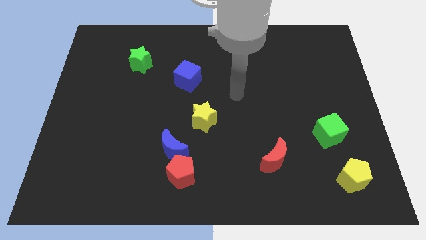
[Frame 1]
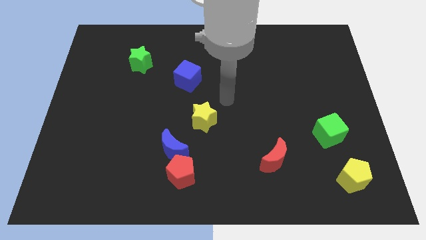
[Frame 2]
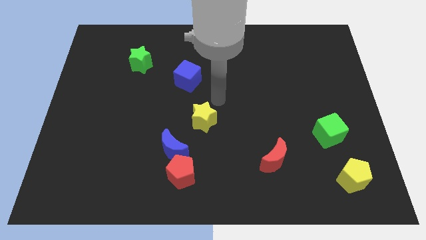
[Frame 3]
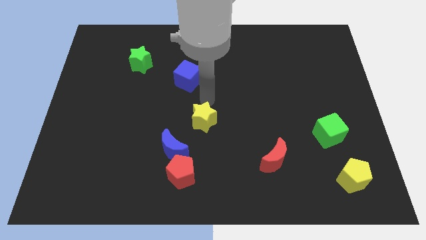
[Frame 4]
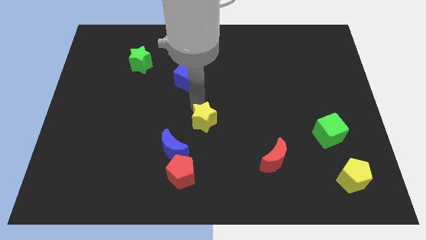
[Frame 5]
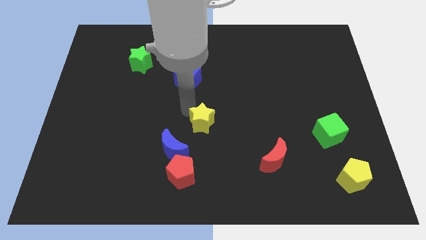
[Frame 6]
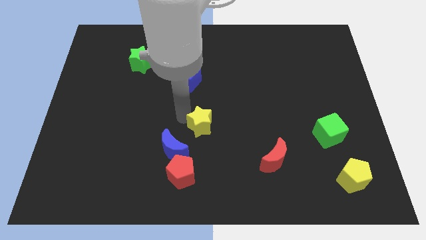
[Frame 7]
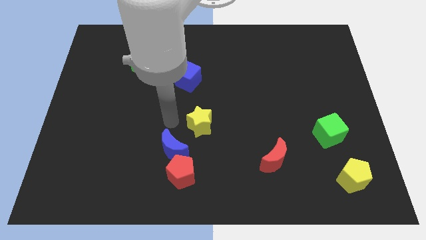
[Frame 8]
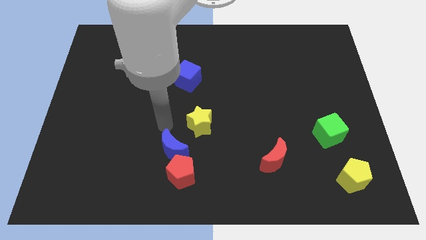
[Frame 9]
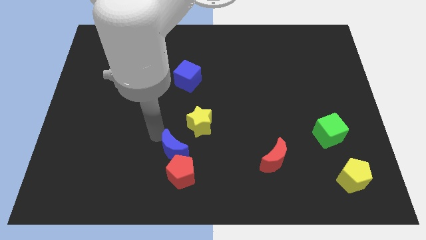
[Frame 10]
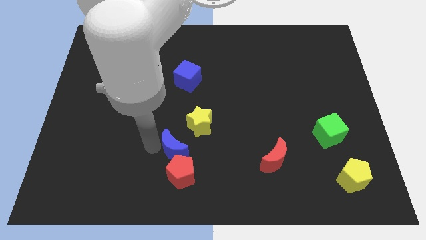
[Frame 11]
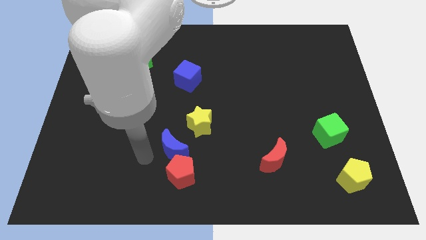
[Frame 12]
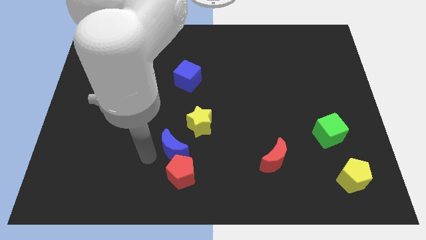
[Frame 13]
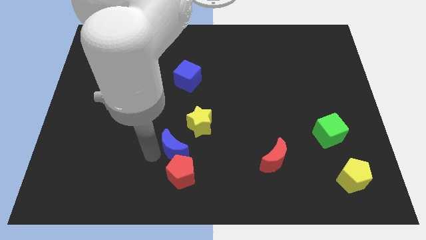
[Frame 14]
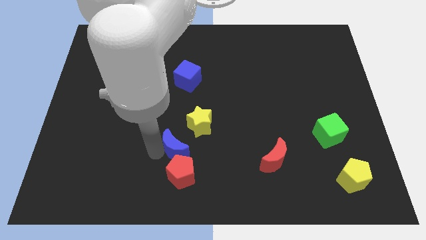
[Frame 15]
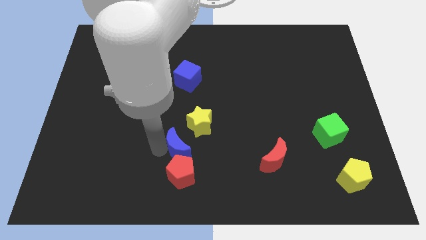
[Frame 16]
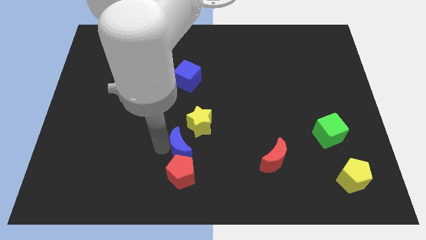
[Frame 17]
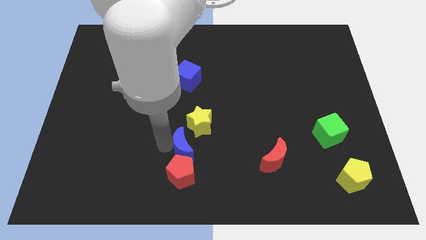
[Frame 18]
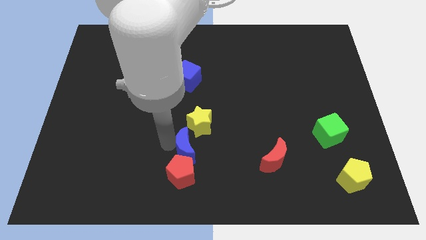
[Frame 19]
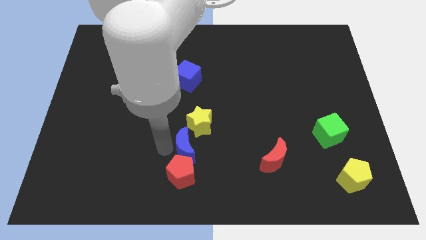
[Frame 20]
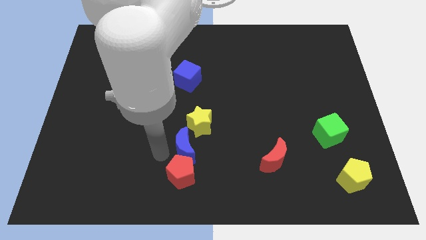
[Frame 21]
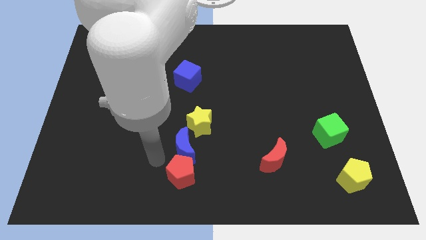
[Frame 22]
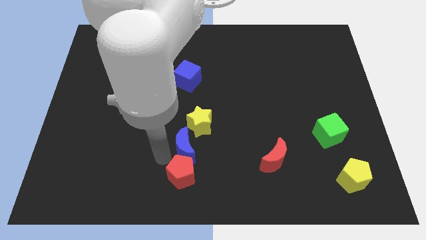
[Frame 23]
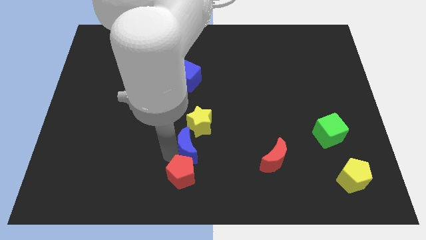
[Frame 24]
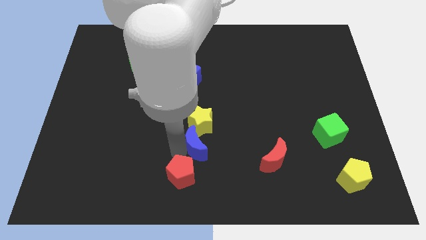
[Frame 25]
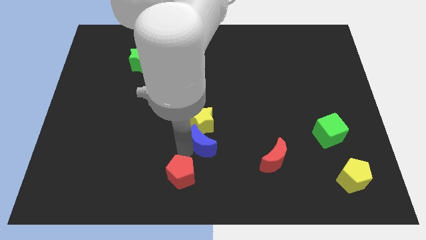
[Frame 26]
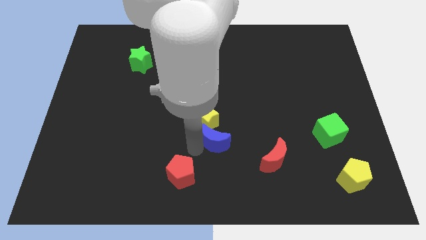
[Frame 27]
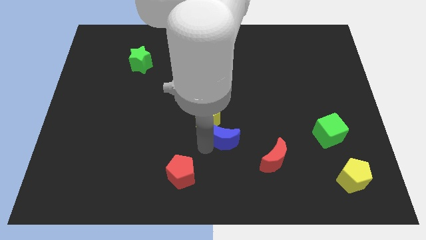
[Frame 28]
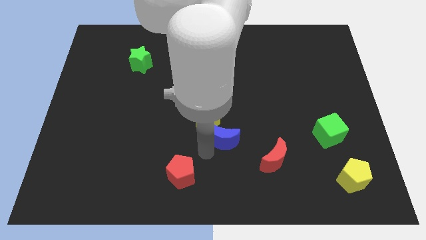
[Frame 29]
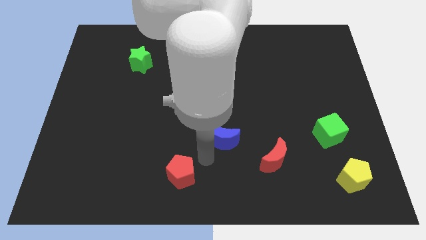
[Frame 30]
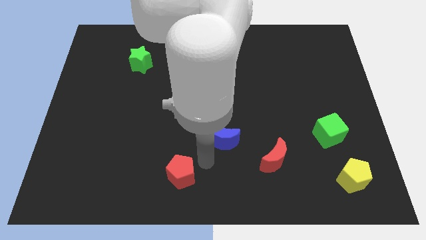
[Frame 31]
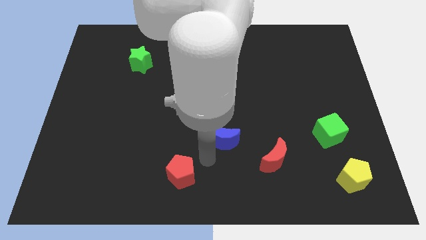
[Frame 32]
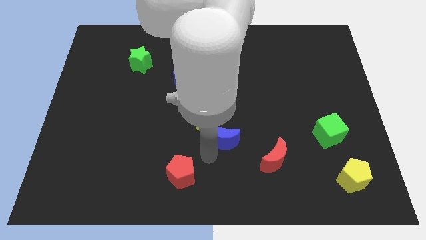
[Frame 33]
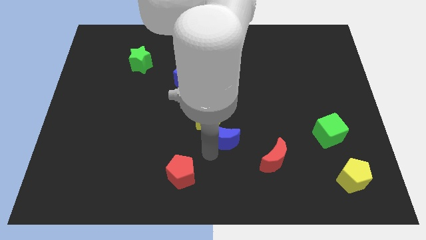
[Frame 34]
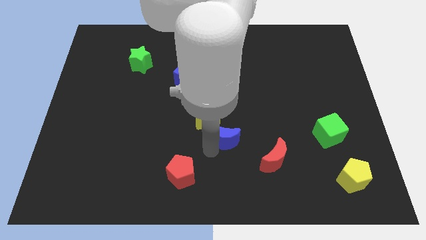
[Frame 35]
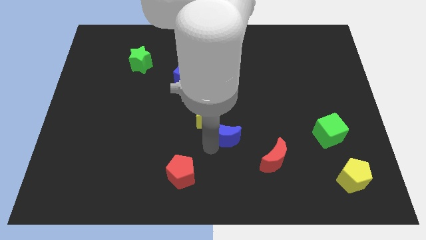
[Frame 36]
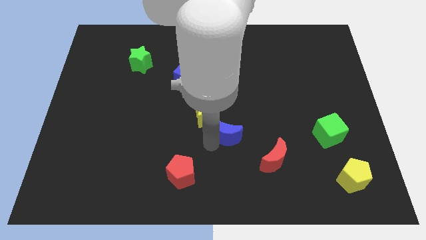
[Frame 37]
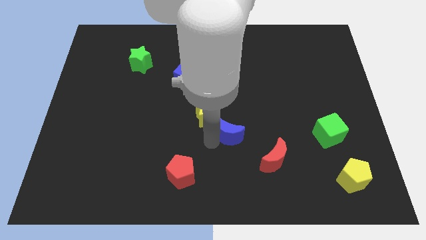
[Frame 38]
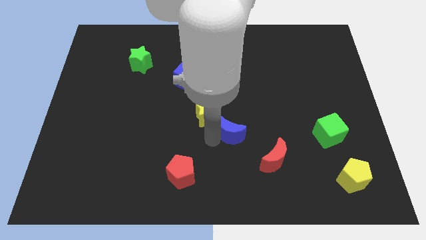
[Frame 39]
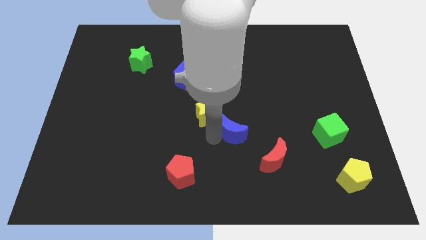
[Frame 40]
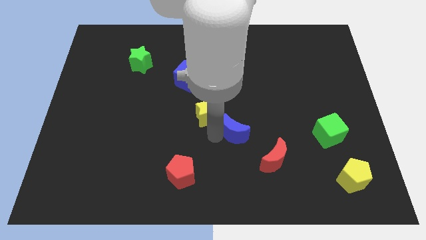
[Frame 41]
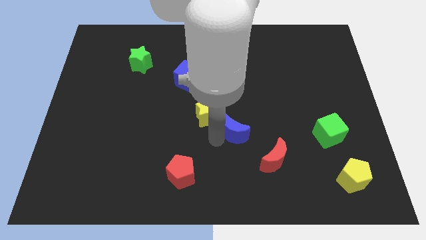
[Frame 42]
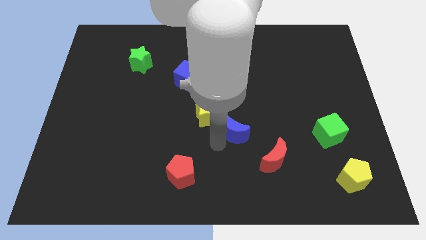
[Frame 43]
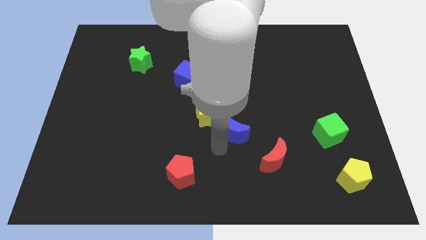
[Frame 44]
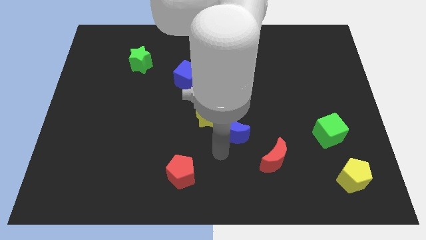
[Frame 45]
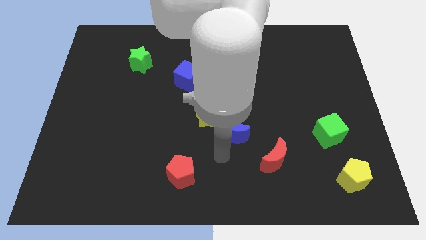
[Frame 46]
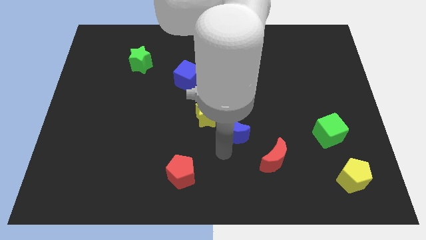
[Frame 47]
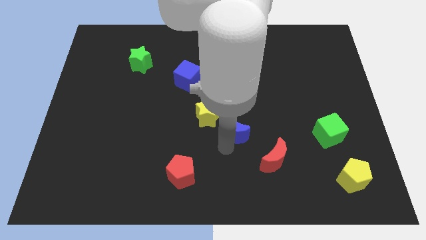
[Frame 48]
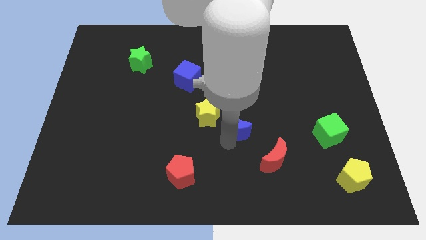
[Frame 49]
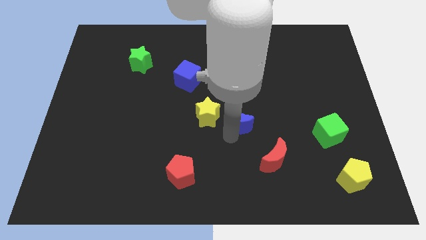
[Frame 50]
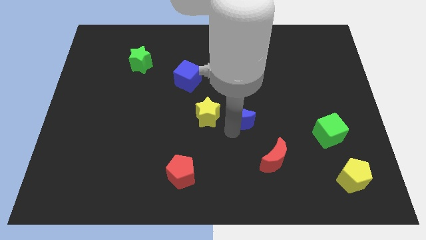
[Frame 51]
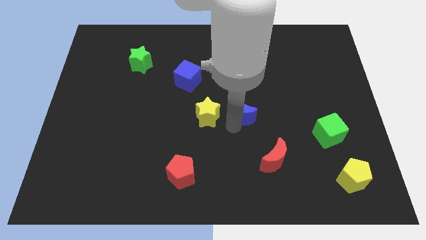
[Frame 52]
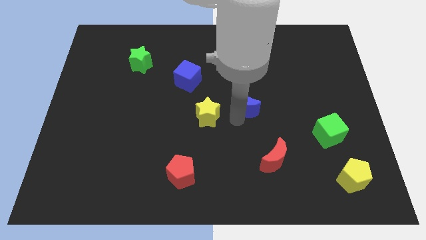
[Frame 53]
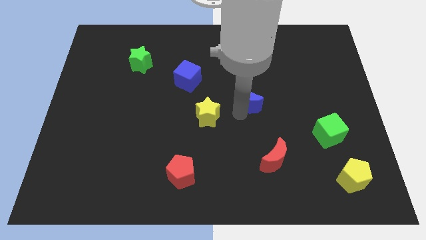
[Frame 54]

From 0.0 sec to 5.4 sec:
slide the blue moon upwards and then to the right

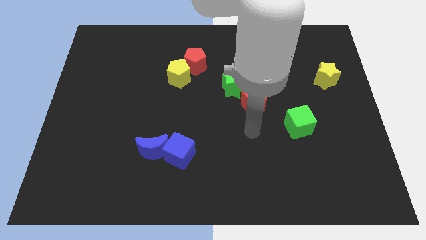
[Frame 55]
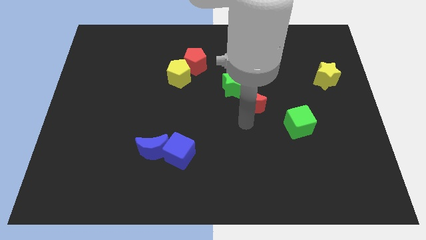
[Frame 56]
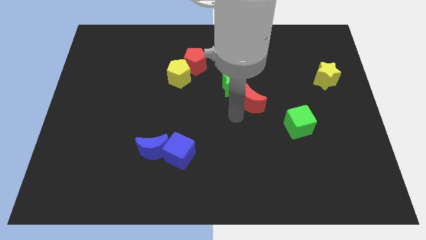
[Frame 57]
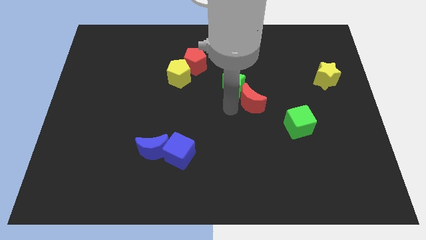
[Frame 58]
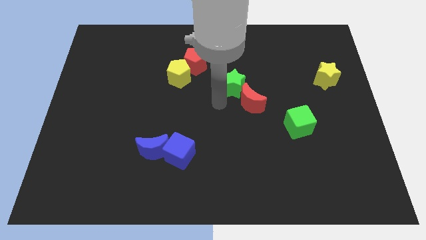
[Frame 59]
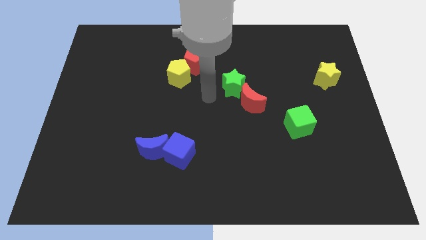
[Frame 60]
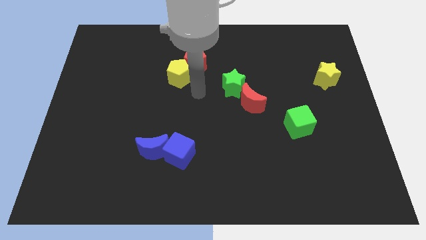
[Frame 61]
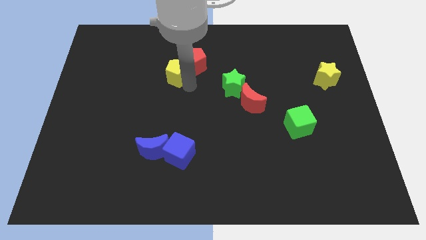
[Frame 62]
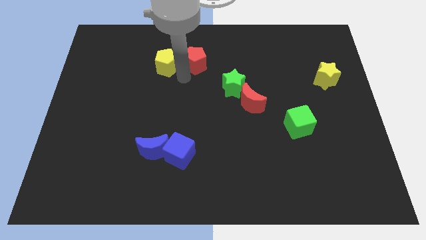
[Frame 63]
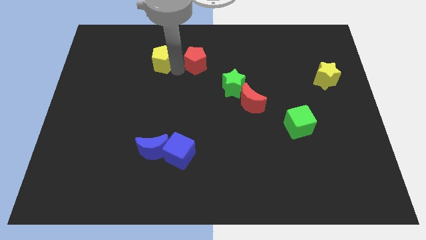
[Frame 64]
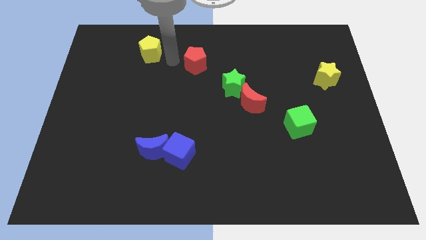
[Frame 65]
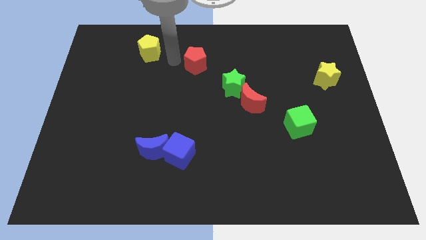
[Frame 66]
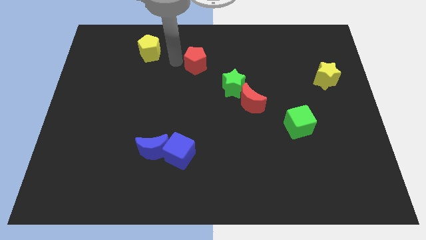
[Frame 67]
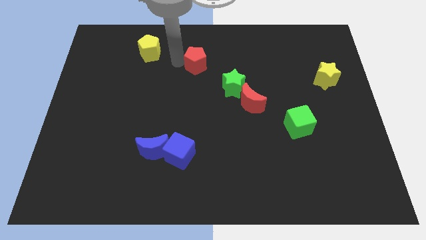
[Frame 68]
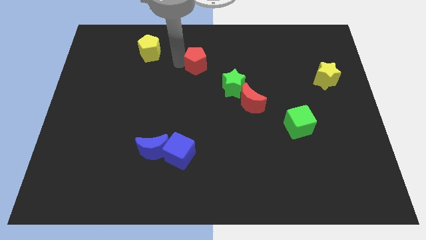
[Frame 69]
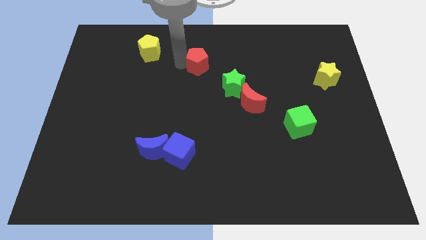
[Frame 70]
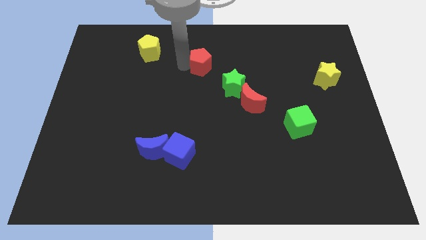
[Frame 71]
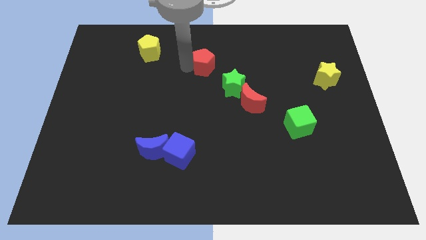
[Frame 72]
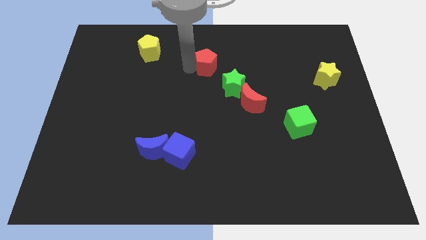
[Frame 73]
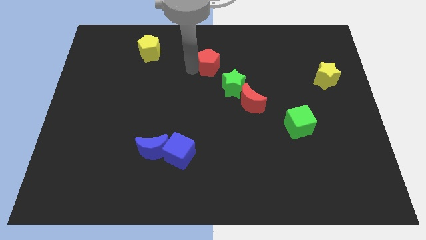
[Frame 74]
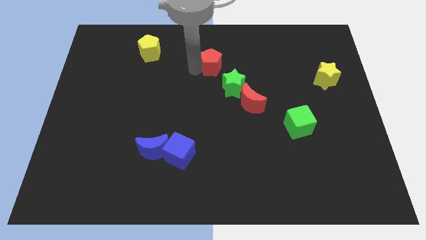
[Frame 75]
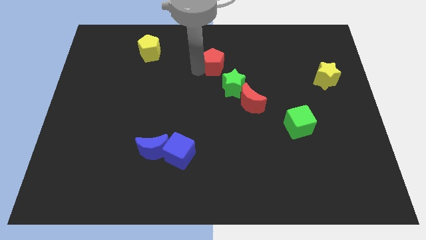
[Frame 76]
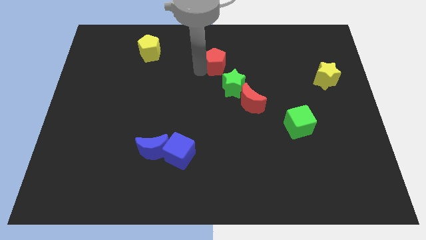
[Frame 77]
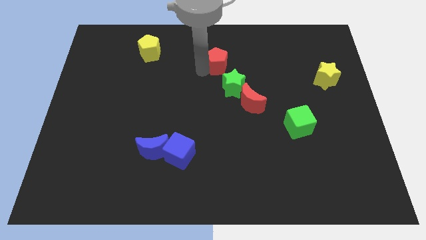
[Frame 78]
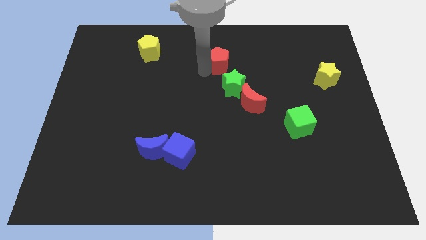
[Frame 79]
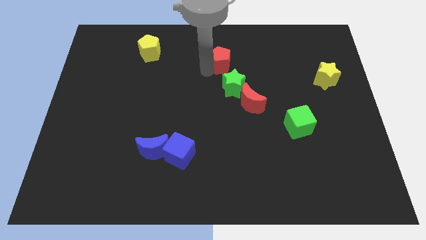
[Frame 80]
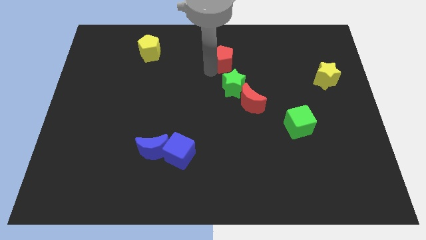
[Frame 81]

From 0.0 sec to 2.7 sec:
slightly move the red pentagon to the right
